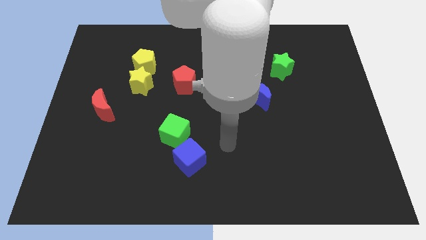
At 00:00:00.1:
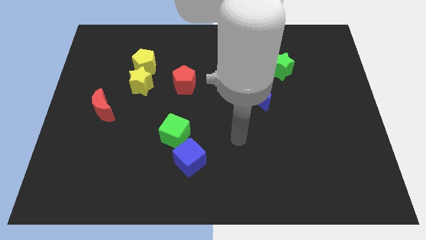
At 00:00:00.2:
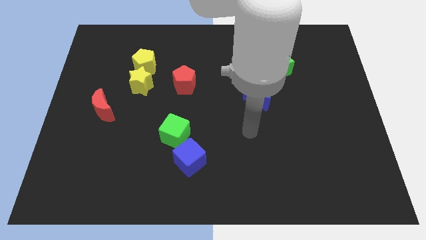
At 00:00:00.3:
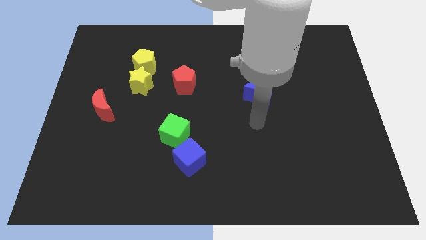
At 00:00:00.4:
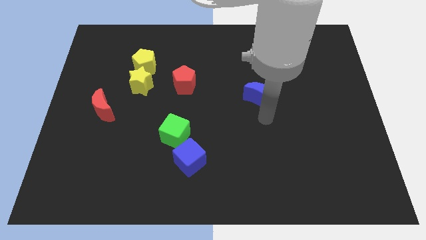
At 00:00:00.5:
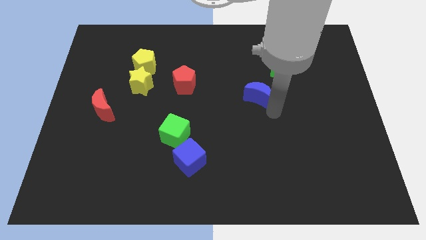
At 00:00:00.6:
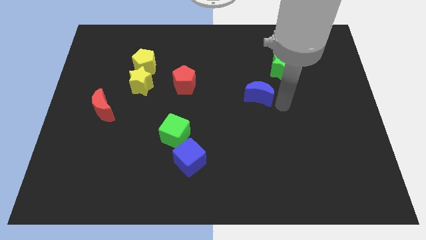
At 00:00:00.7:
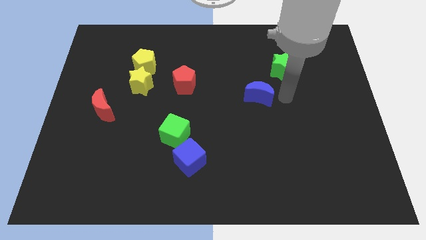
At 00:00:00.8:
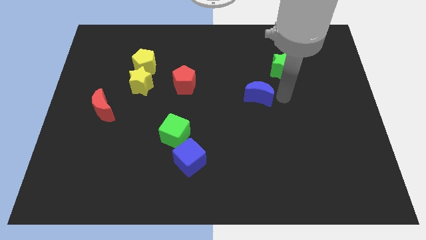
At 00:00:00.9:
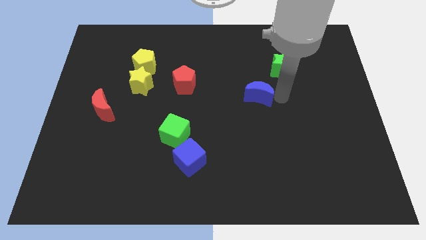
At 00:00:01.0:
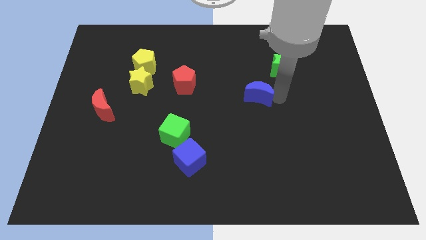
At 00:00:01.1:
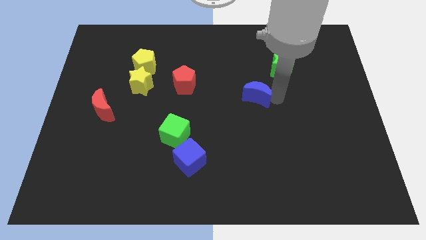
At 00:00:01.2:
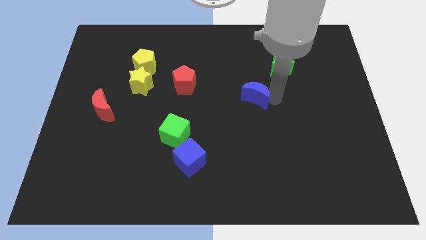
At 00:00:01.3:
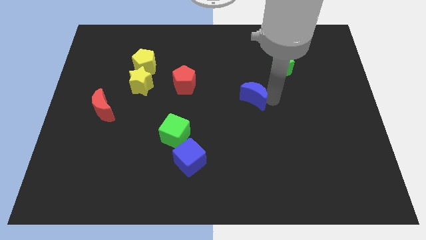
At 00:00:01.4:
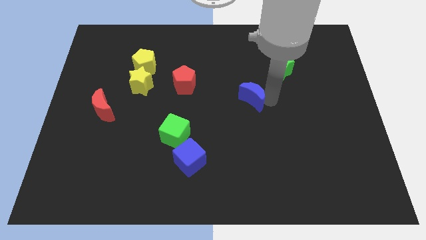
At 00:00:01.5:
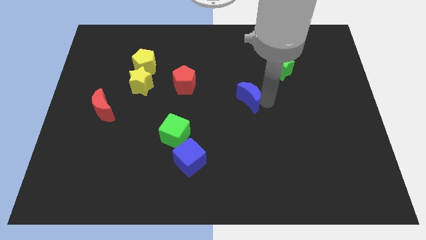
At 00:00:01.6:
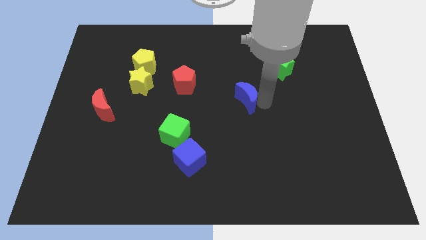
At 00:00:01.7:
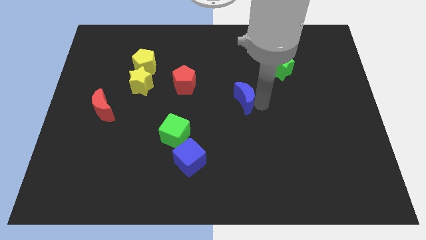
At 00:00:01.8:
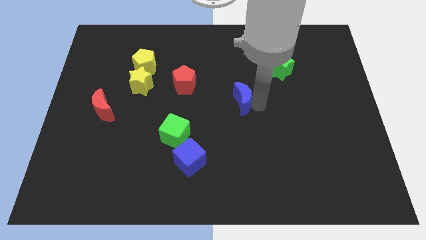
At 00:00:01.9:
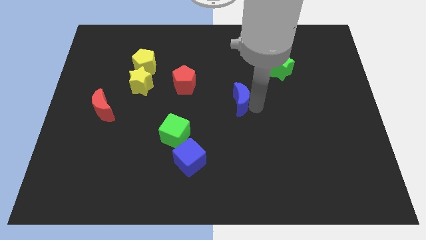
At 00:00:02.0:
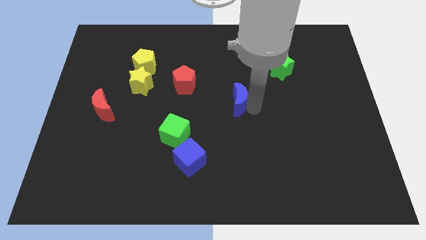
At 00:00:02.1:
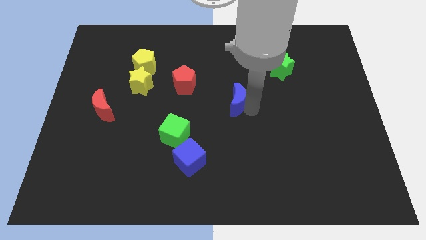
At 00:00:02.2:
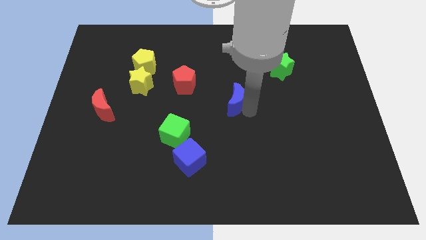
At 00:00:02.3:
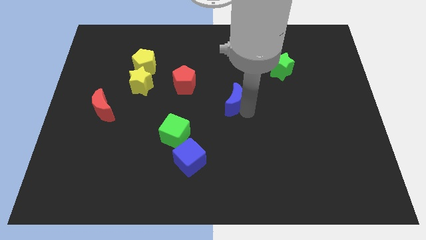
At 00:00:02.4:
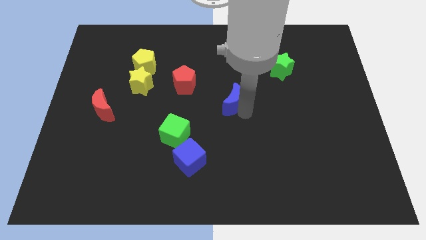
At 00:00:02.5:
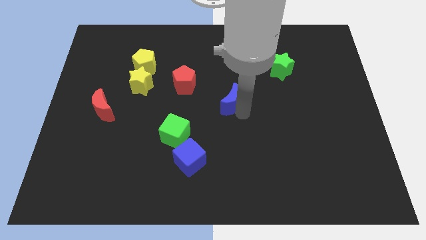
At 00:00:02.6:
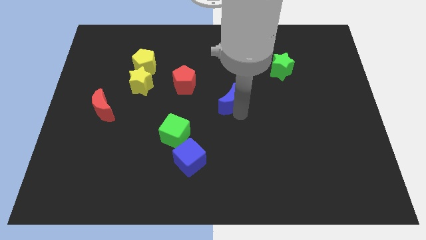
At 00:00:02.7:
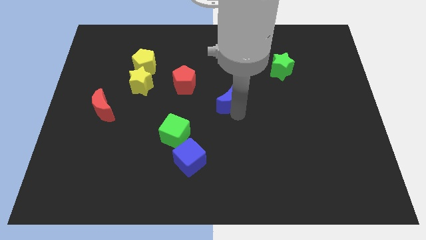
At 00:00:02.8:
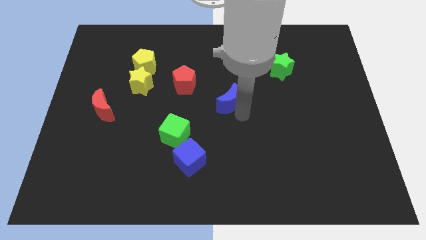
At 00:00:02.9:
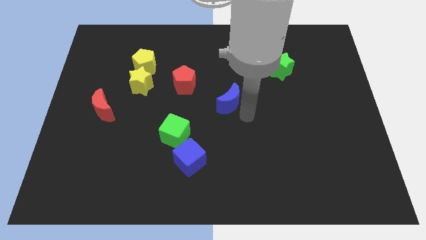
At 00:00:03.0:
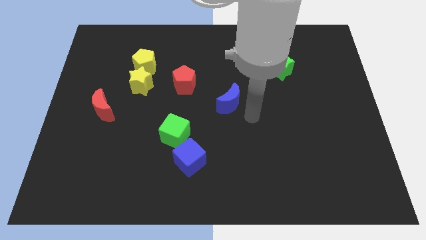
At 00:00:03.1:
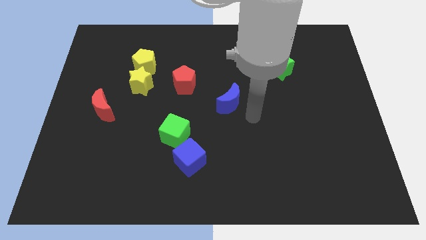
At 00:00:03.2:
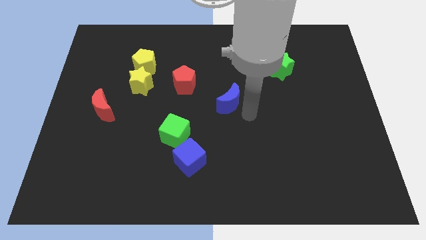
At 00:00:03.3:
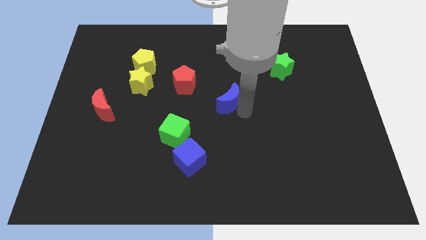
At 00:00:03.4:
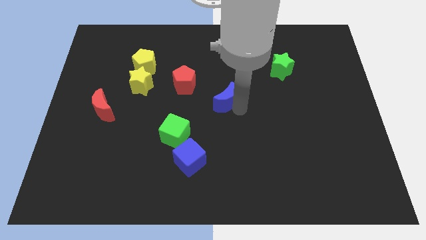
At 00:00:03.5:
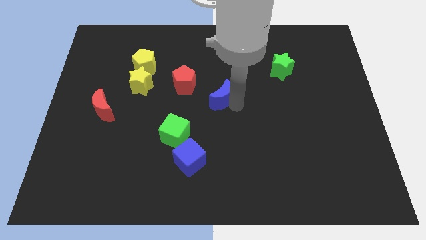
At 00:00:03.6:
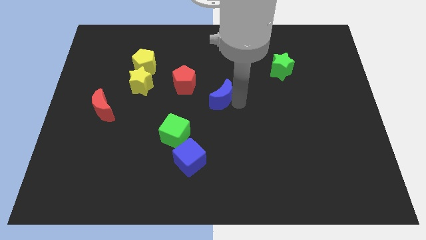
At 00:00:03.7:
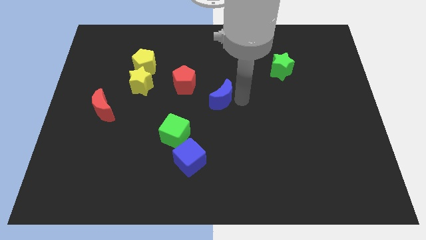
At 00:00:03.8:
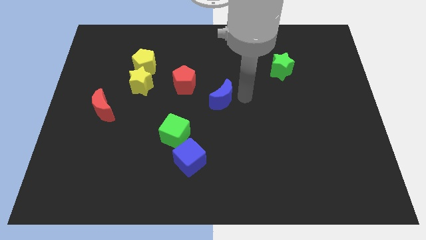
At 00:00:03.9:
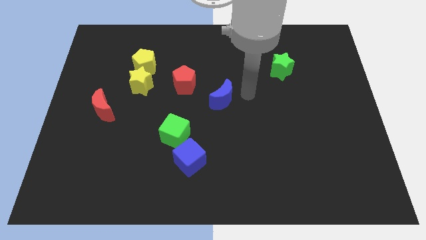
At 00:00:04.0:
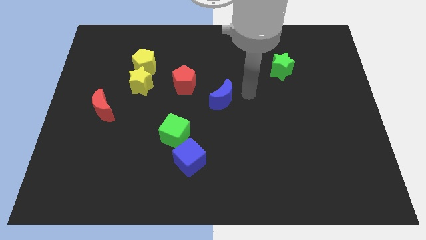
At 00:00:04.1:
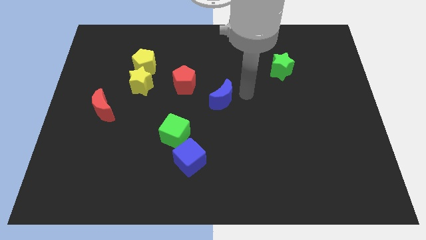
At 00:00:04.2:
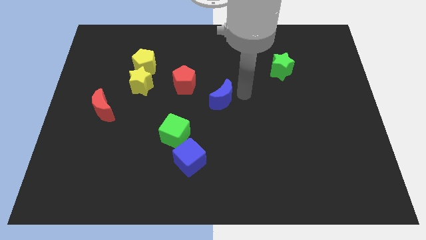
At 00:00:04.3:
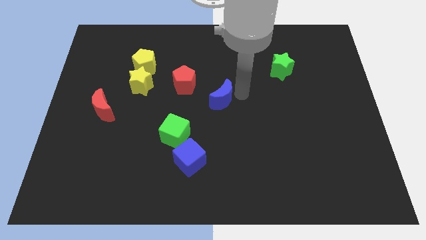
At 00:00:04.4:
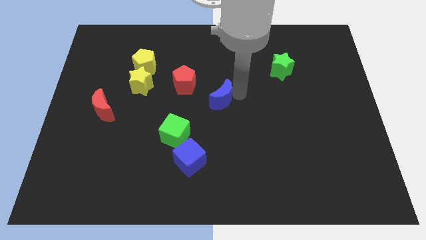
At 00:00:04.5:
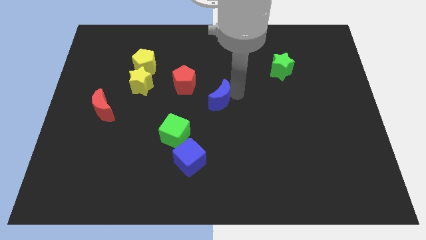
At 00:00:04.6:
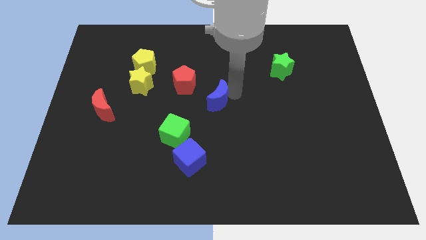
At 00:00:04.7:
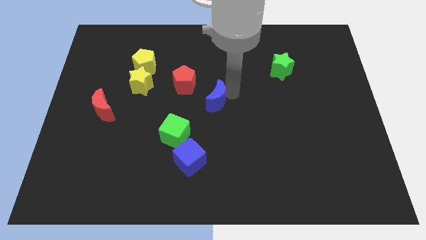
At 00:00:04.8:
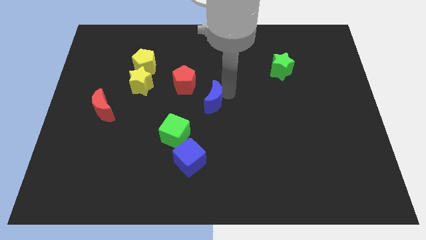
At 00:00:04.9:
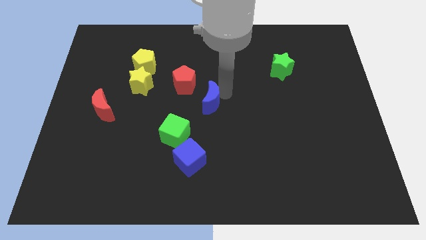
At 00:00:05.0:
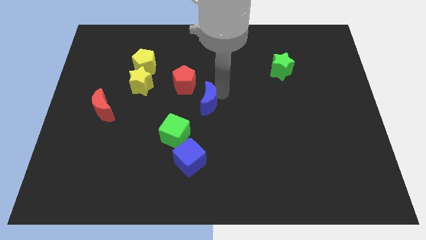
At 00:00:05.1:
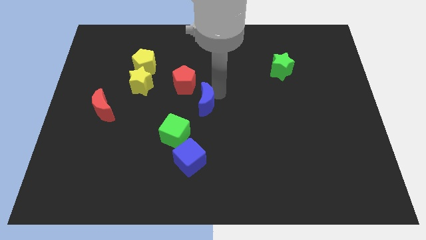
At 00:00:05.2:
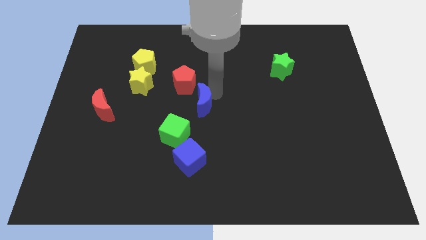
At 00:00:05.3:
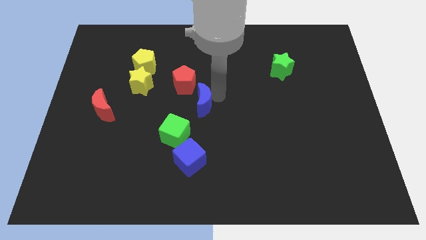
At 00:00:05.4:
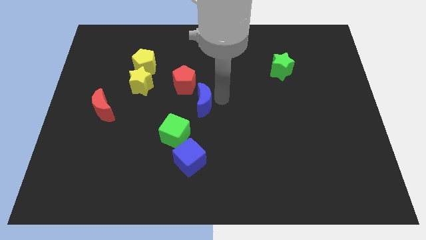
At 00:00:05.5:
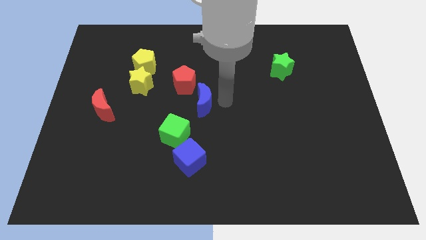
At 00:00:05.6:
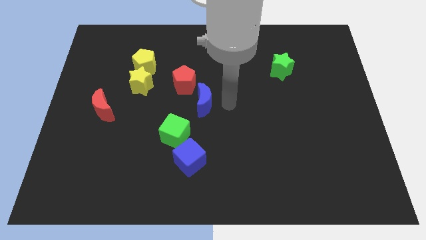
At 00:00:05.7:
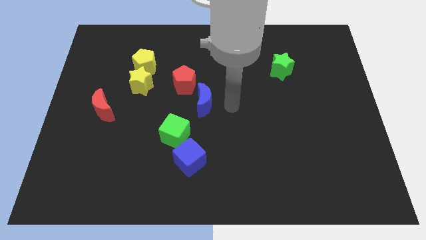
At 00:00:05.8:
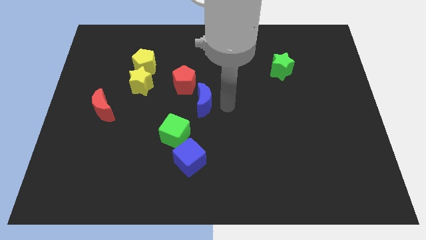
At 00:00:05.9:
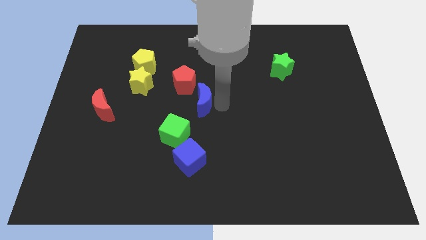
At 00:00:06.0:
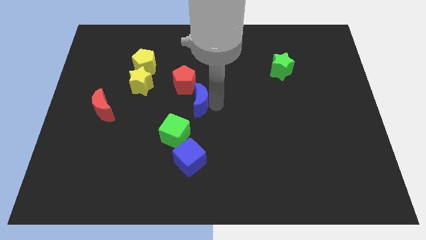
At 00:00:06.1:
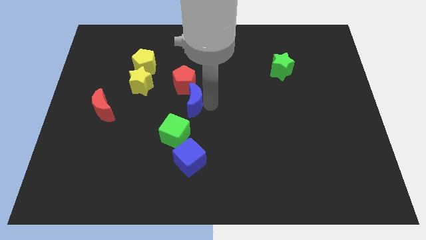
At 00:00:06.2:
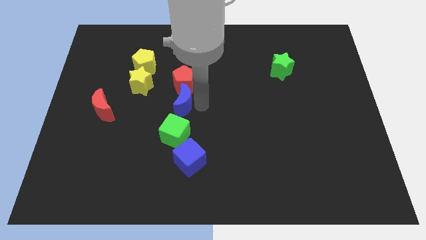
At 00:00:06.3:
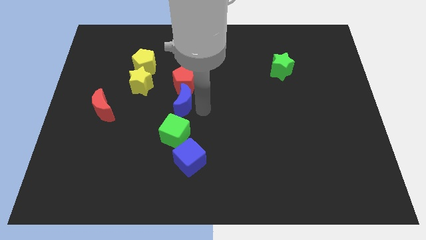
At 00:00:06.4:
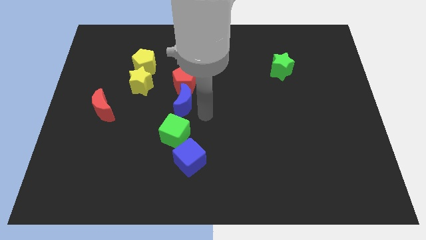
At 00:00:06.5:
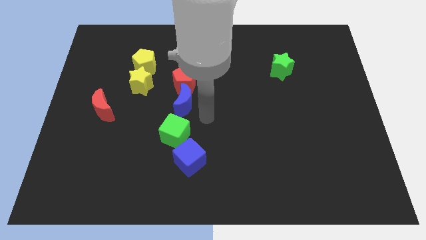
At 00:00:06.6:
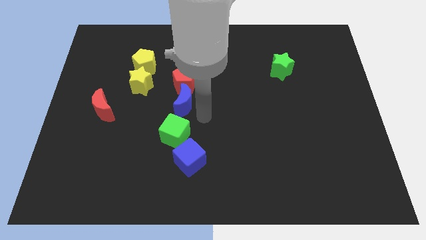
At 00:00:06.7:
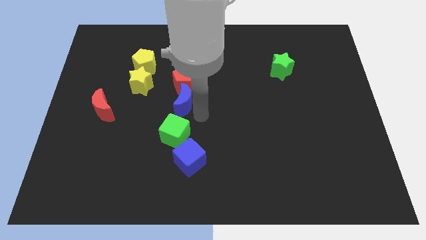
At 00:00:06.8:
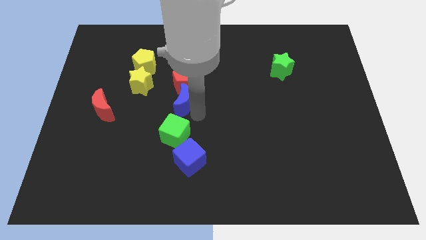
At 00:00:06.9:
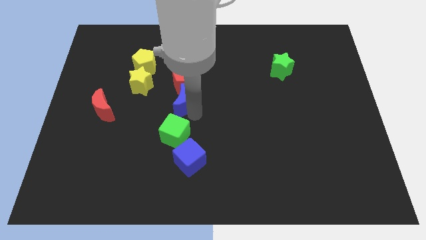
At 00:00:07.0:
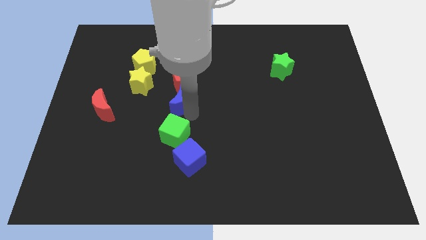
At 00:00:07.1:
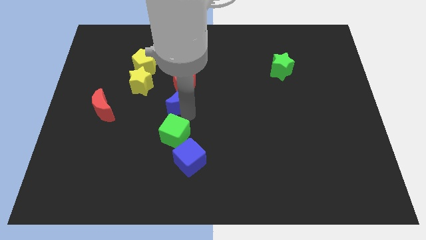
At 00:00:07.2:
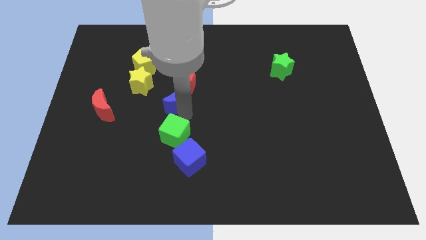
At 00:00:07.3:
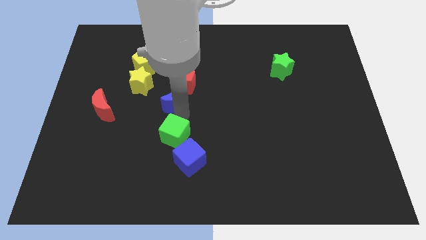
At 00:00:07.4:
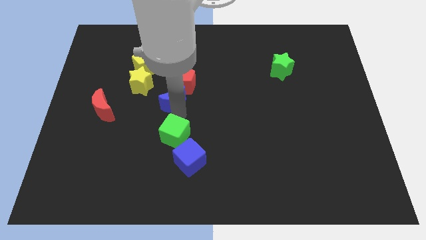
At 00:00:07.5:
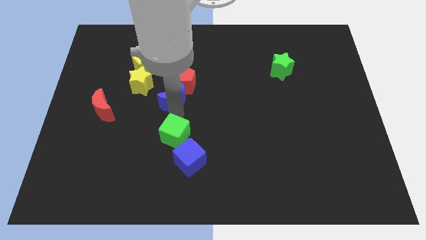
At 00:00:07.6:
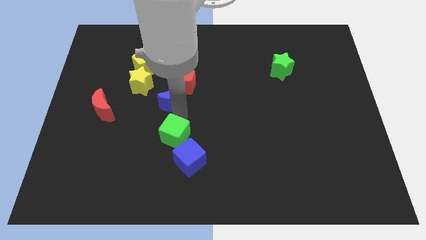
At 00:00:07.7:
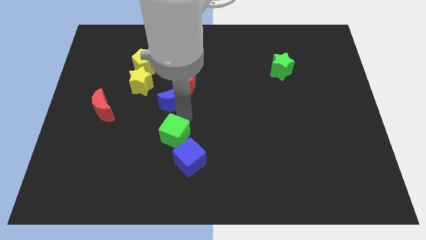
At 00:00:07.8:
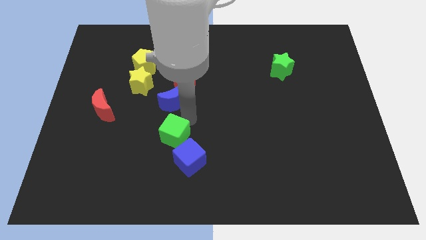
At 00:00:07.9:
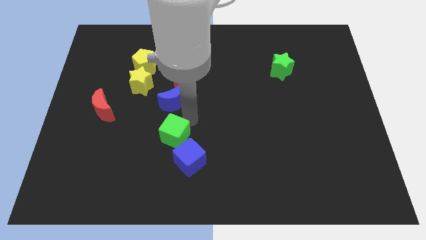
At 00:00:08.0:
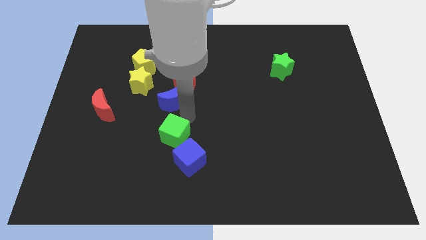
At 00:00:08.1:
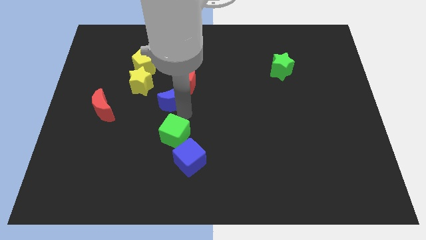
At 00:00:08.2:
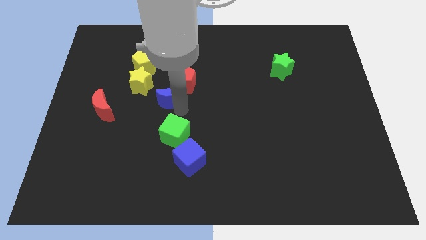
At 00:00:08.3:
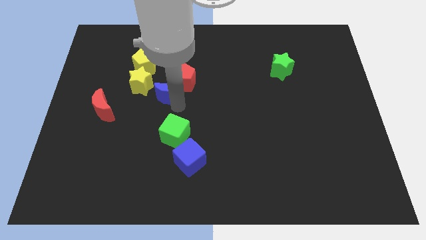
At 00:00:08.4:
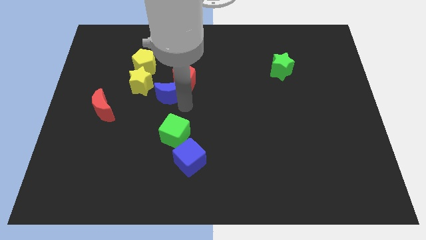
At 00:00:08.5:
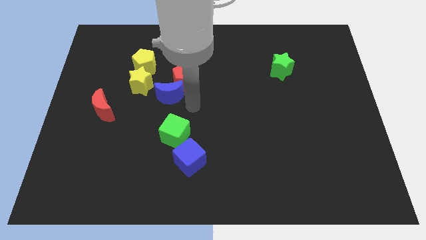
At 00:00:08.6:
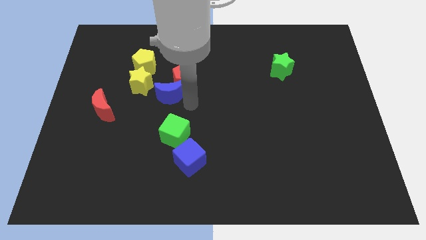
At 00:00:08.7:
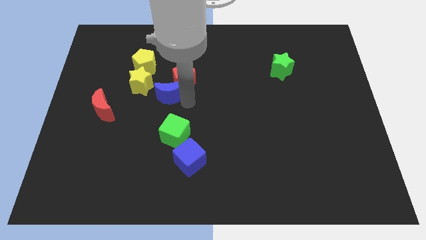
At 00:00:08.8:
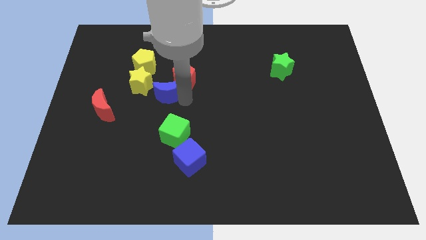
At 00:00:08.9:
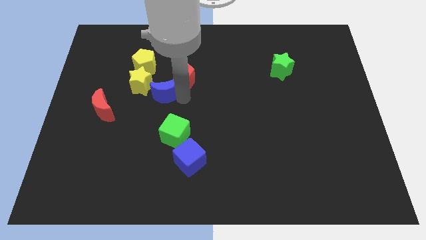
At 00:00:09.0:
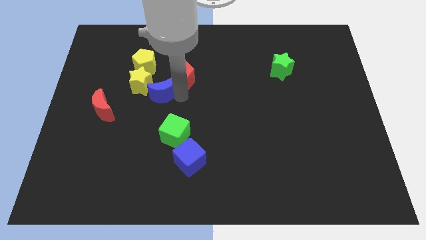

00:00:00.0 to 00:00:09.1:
slide the blue moon to the yellow star
